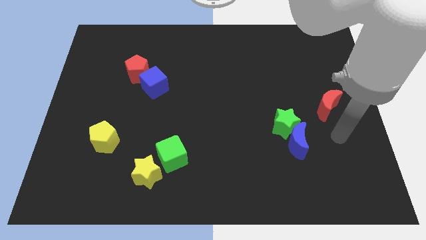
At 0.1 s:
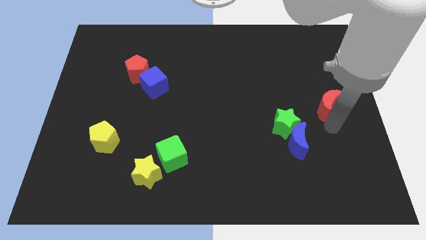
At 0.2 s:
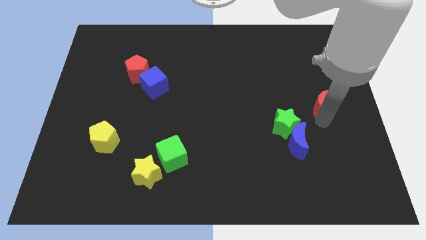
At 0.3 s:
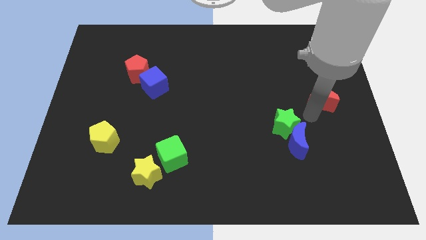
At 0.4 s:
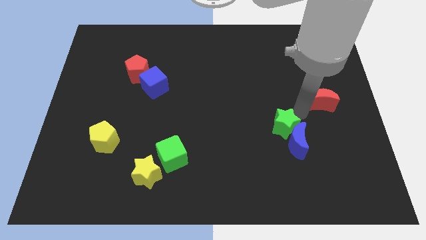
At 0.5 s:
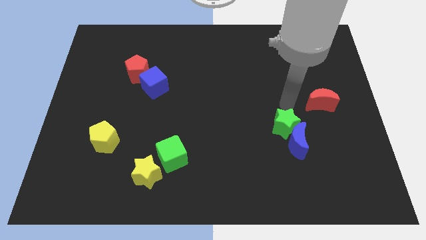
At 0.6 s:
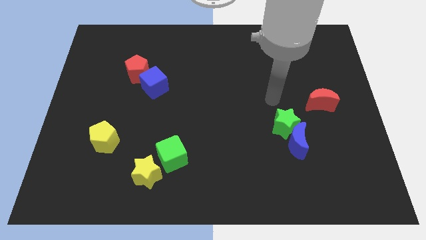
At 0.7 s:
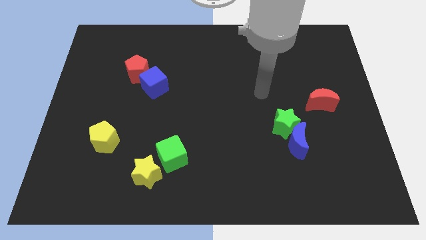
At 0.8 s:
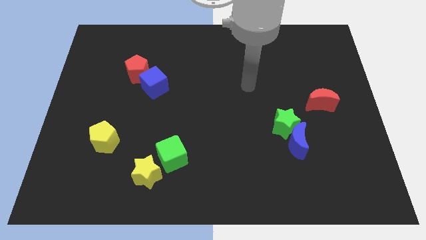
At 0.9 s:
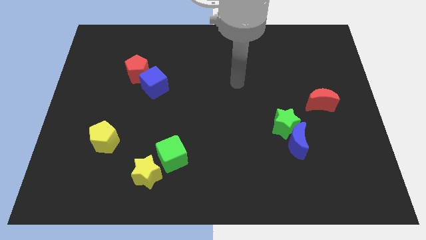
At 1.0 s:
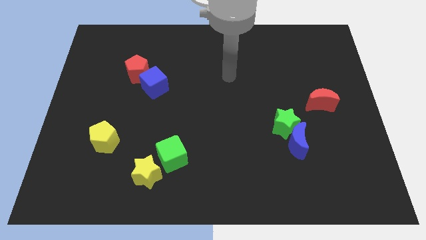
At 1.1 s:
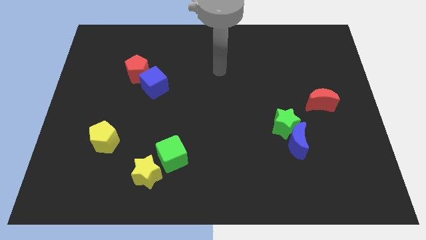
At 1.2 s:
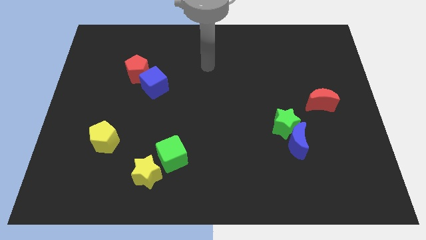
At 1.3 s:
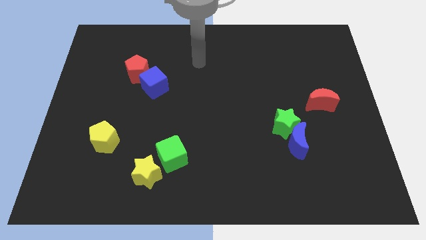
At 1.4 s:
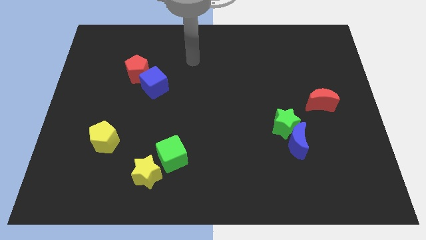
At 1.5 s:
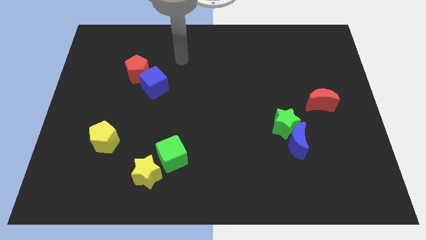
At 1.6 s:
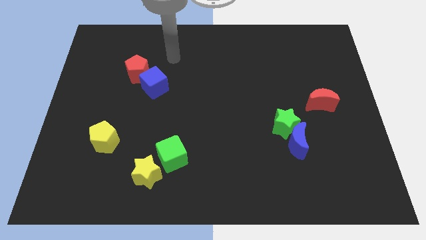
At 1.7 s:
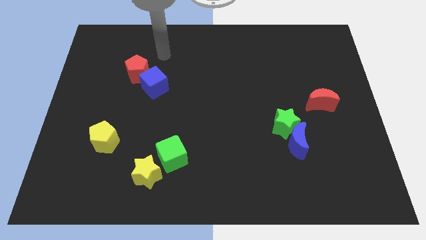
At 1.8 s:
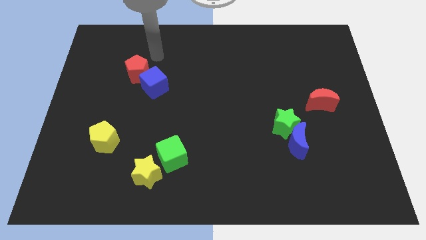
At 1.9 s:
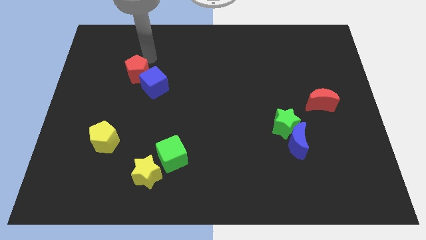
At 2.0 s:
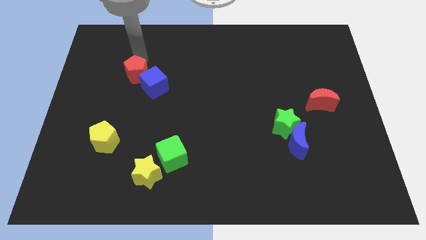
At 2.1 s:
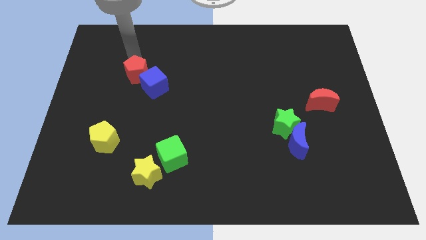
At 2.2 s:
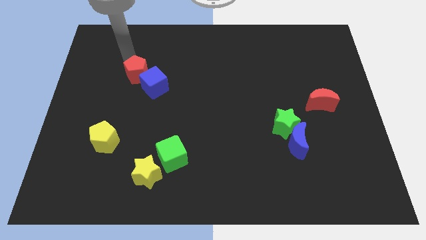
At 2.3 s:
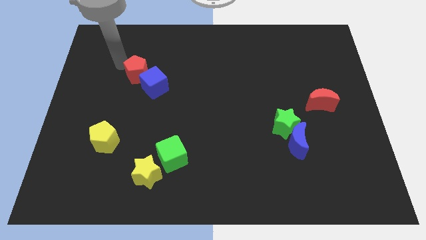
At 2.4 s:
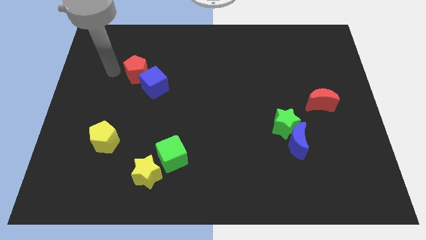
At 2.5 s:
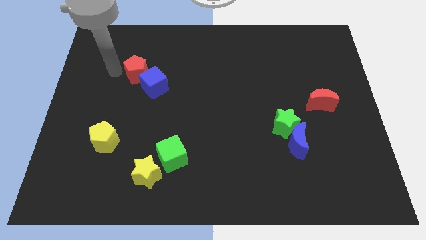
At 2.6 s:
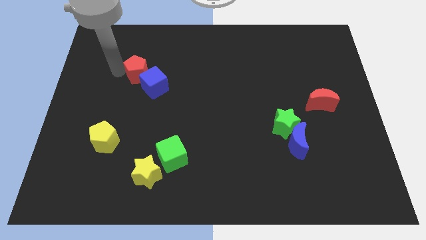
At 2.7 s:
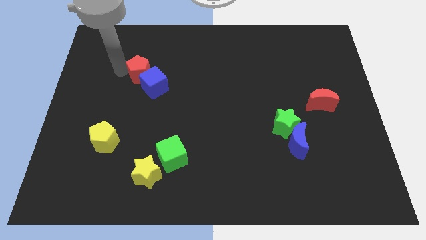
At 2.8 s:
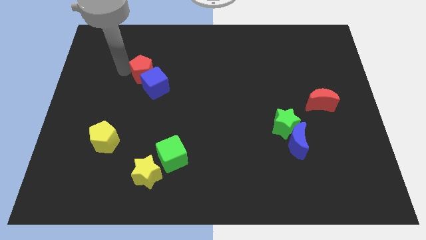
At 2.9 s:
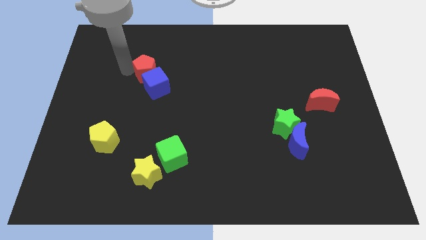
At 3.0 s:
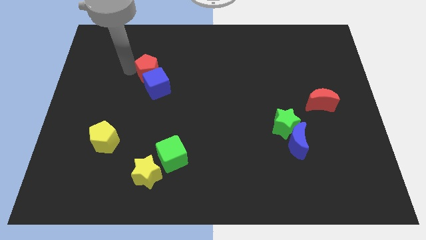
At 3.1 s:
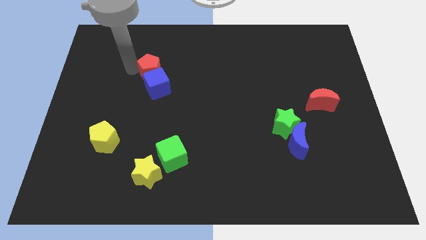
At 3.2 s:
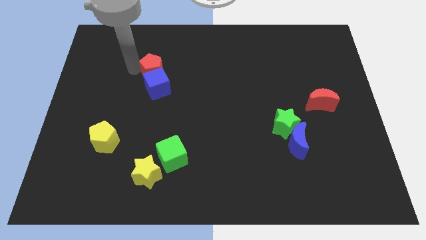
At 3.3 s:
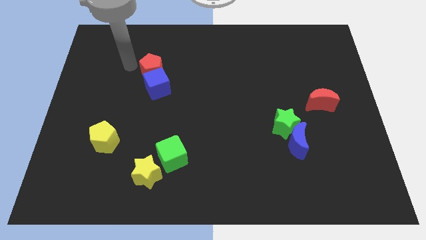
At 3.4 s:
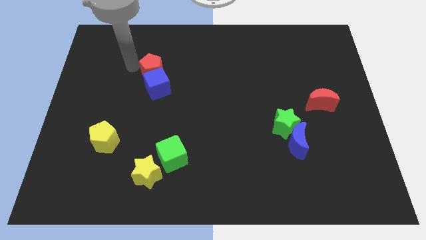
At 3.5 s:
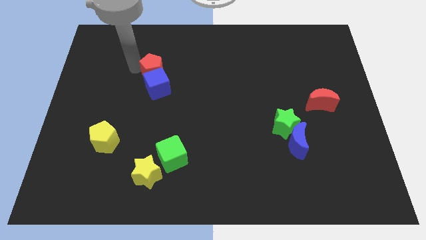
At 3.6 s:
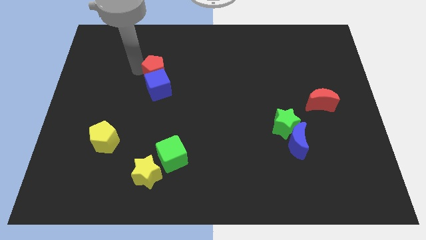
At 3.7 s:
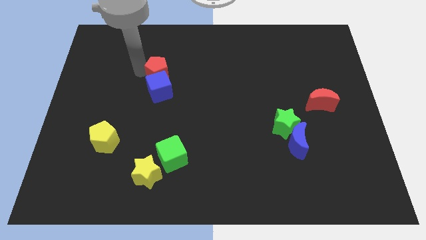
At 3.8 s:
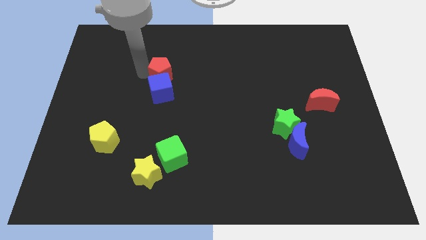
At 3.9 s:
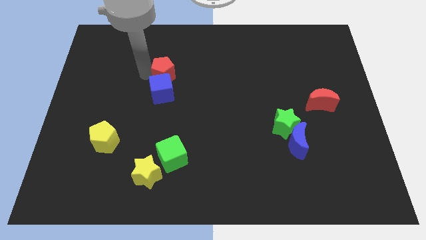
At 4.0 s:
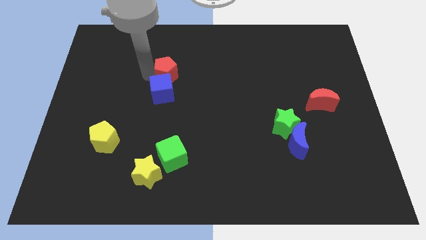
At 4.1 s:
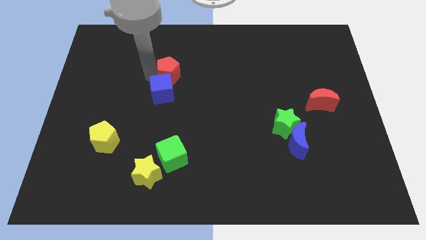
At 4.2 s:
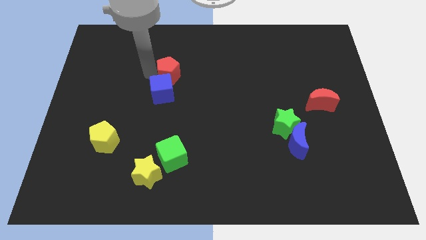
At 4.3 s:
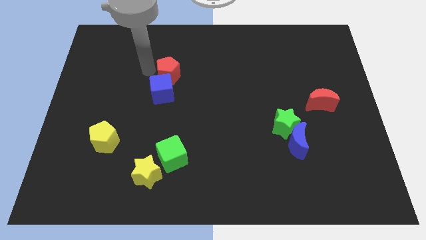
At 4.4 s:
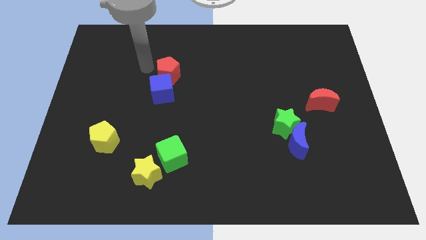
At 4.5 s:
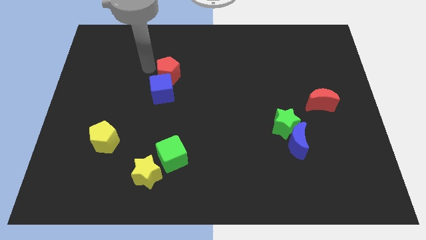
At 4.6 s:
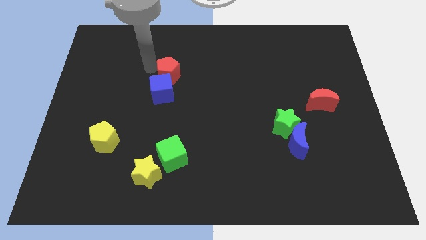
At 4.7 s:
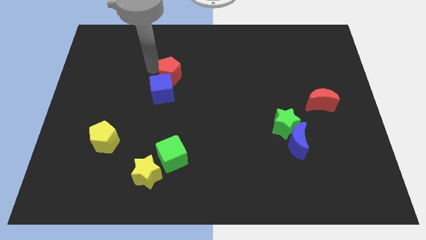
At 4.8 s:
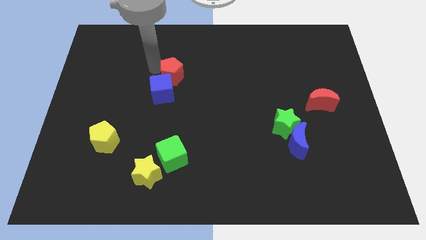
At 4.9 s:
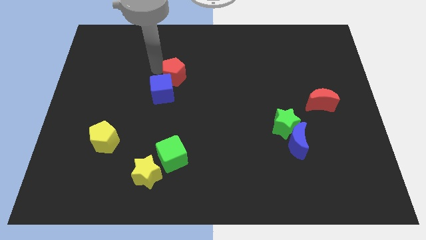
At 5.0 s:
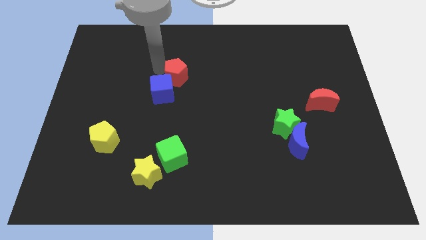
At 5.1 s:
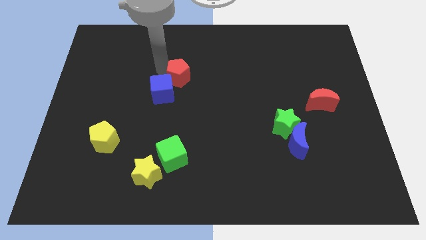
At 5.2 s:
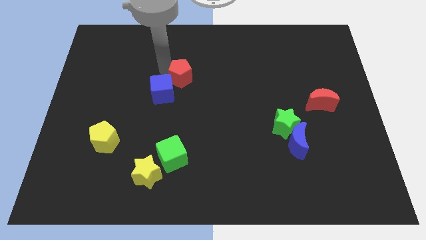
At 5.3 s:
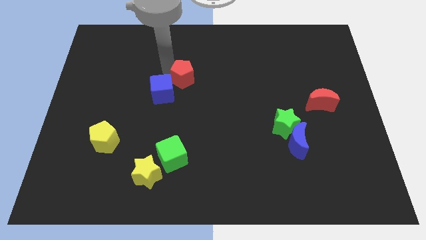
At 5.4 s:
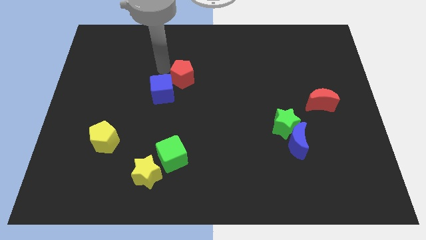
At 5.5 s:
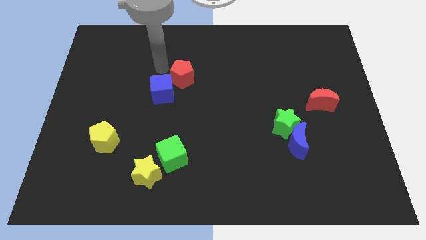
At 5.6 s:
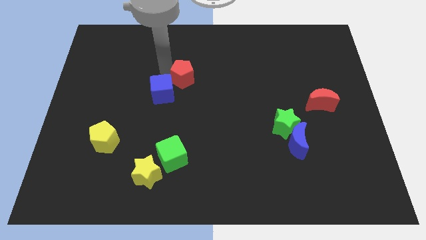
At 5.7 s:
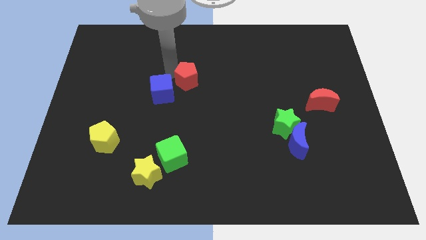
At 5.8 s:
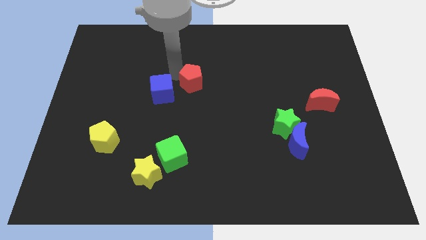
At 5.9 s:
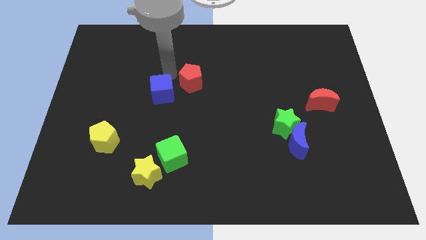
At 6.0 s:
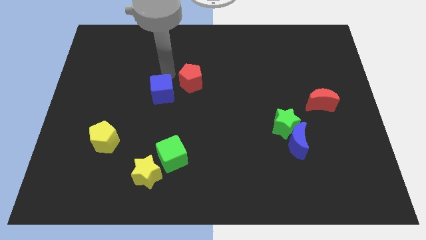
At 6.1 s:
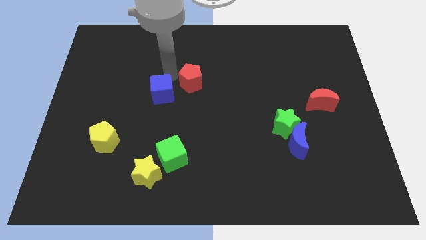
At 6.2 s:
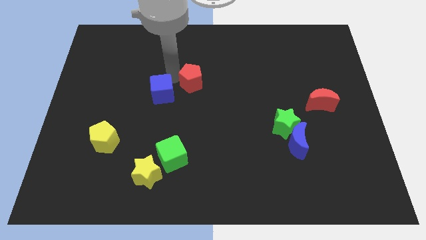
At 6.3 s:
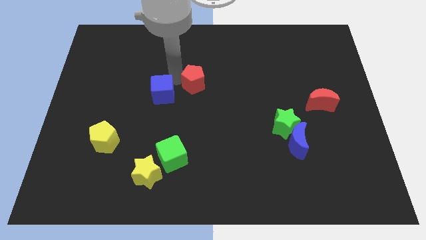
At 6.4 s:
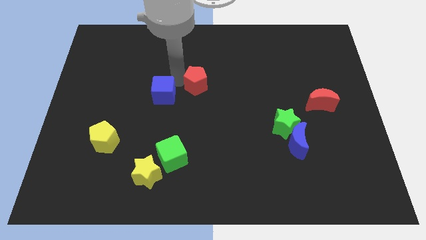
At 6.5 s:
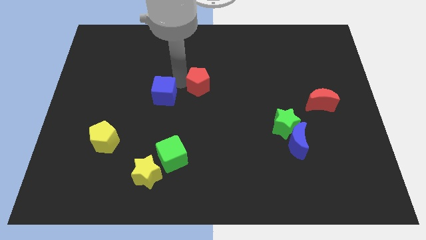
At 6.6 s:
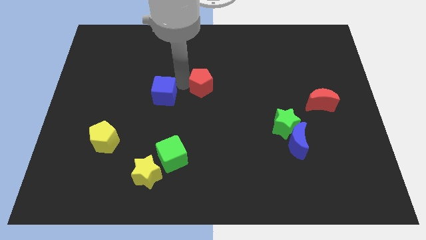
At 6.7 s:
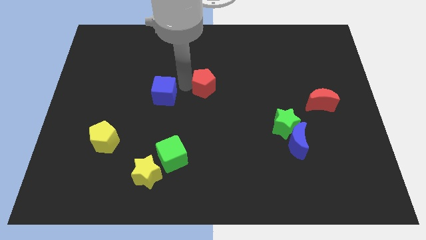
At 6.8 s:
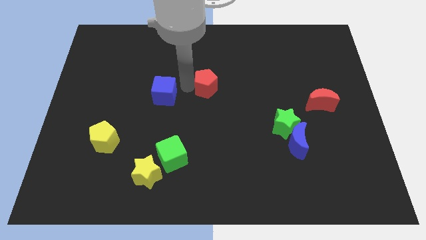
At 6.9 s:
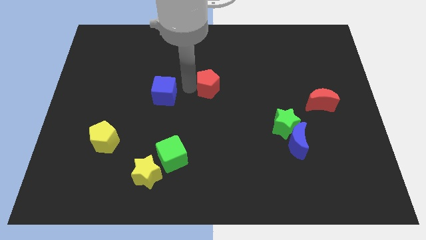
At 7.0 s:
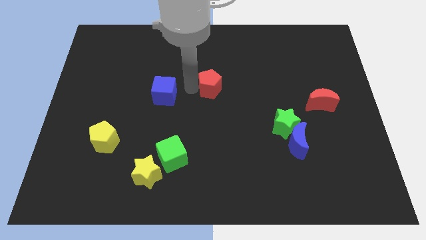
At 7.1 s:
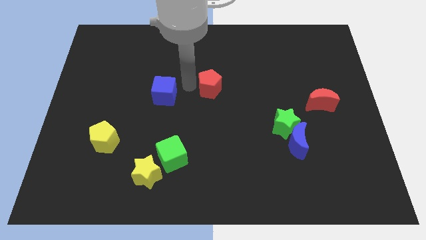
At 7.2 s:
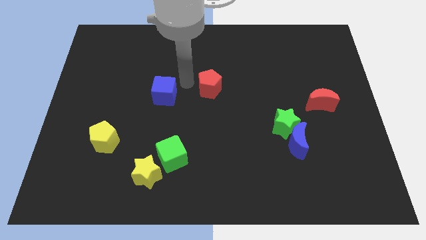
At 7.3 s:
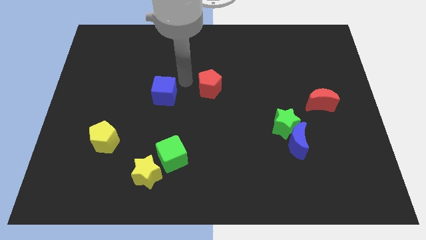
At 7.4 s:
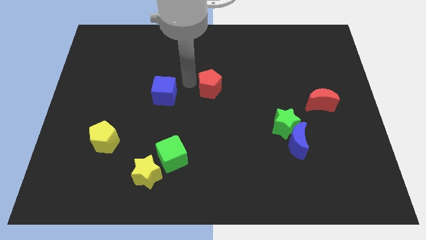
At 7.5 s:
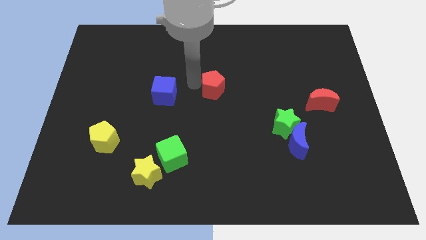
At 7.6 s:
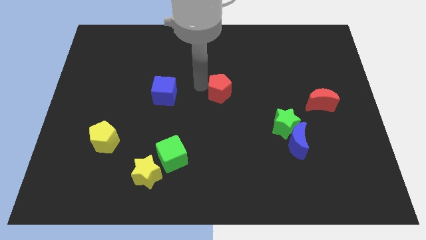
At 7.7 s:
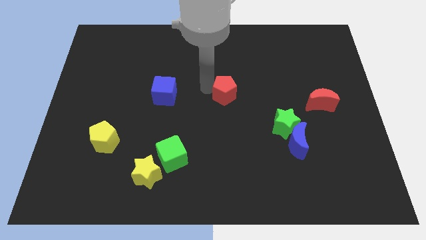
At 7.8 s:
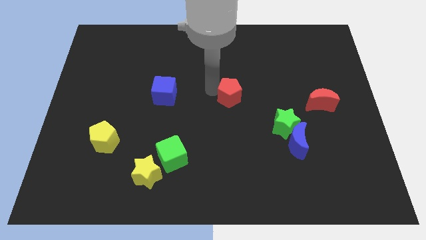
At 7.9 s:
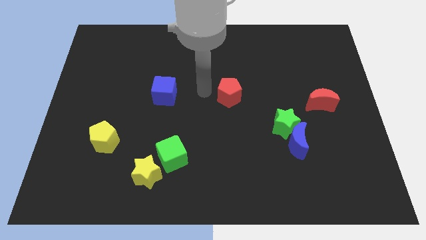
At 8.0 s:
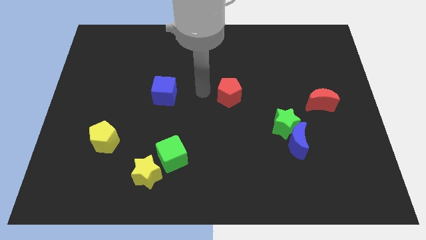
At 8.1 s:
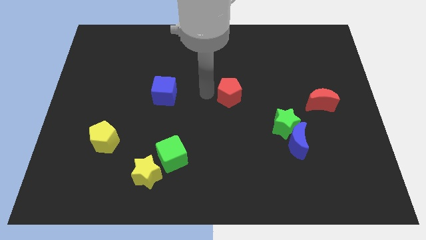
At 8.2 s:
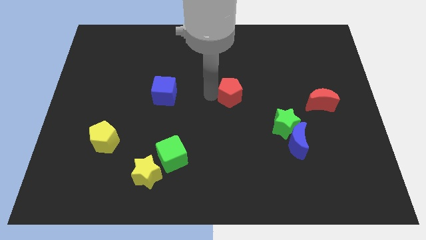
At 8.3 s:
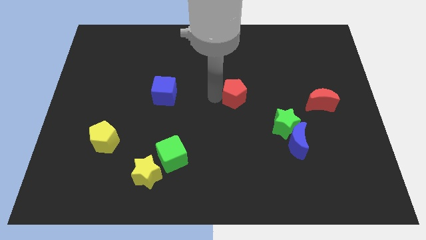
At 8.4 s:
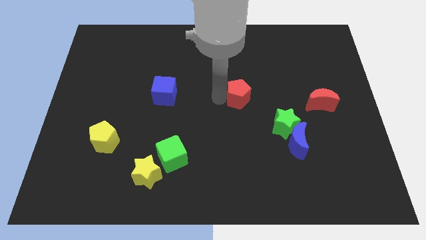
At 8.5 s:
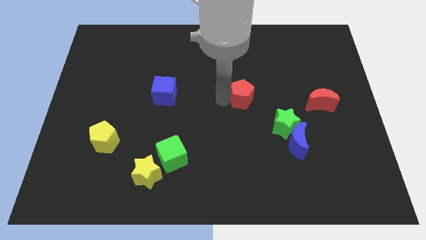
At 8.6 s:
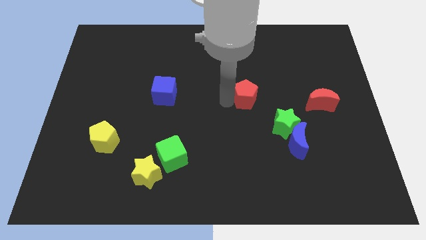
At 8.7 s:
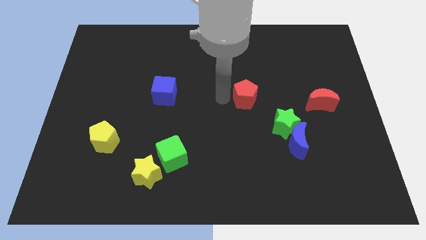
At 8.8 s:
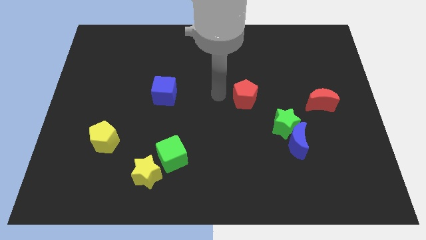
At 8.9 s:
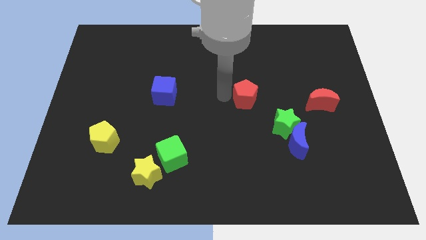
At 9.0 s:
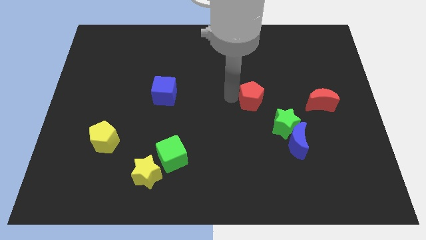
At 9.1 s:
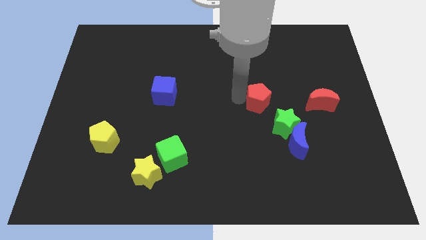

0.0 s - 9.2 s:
move the red pentagon left of the red moon
